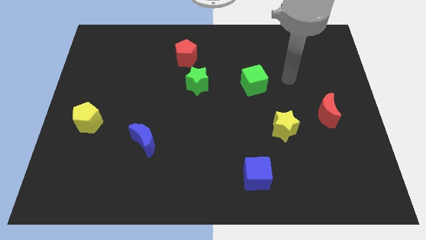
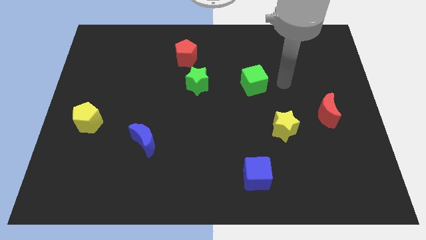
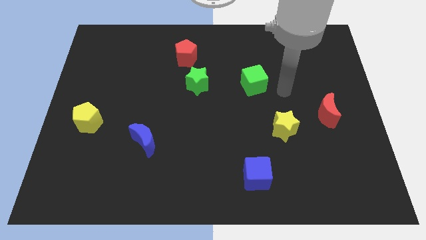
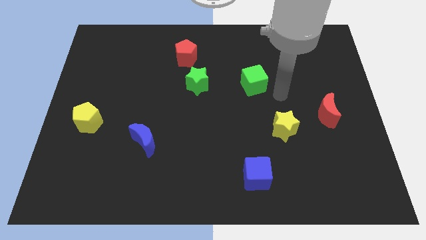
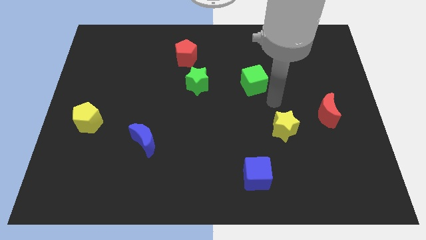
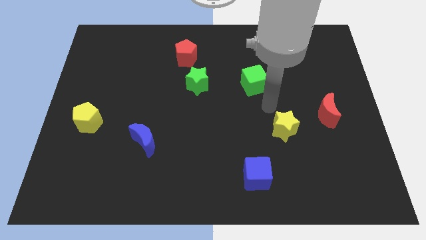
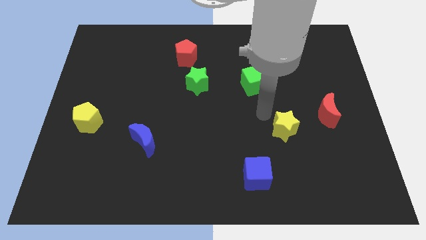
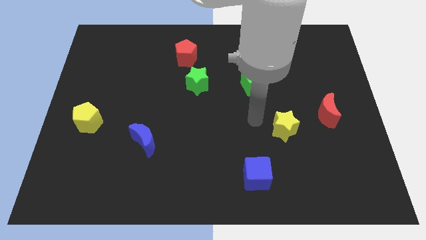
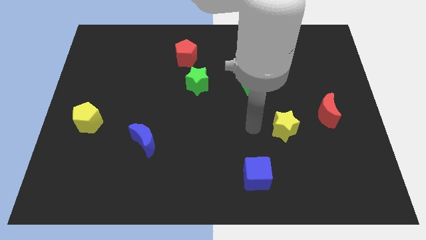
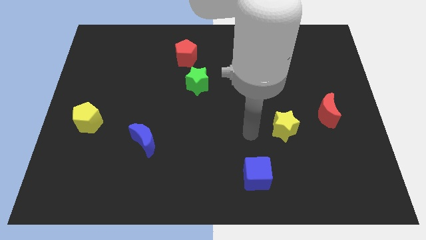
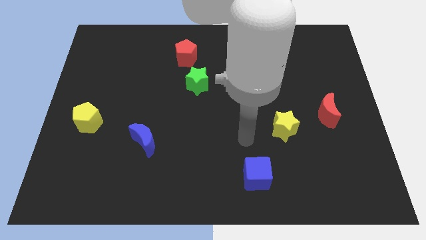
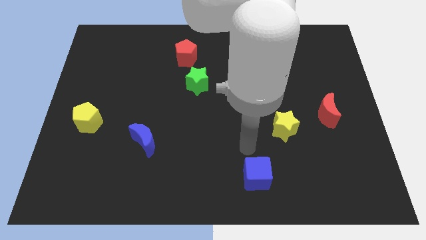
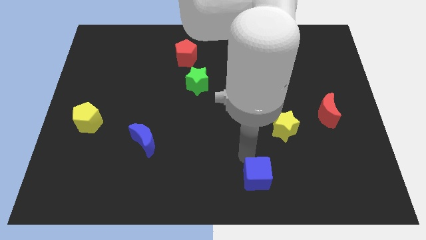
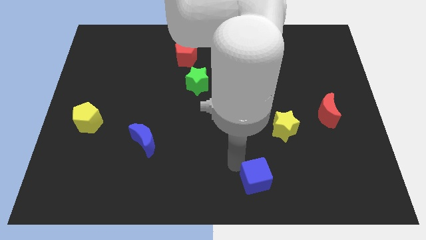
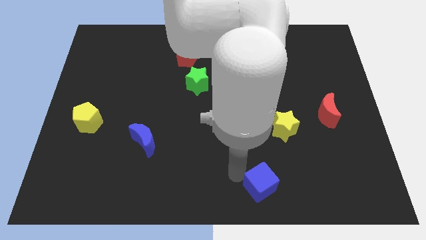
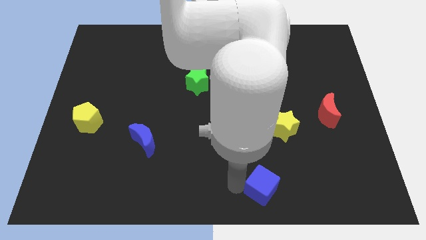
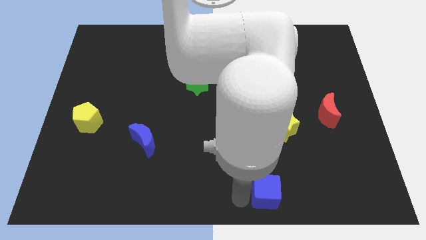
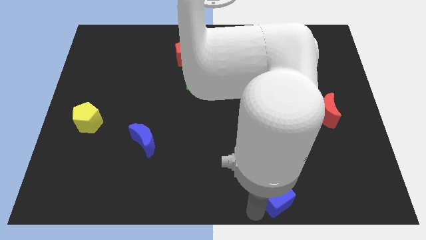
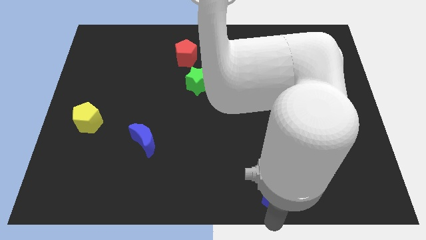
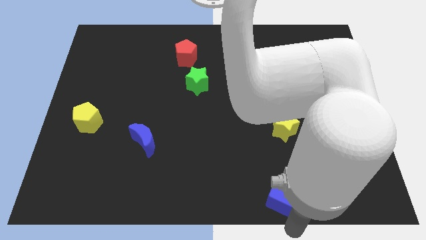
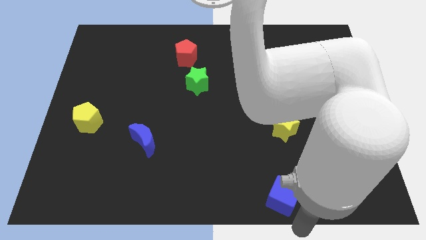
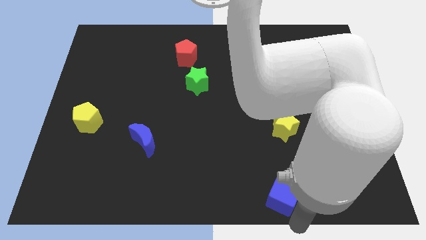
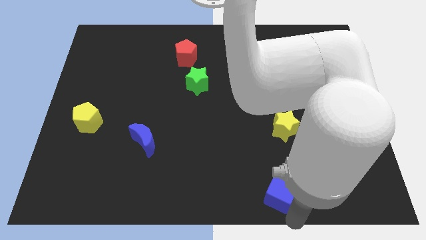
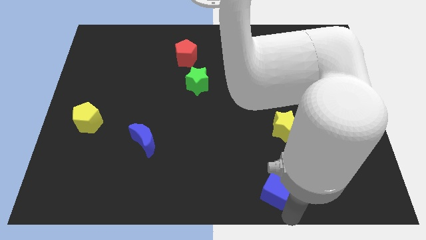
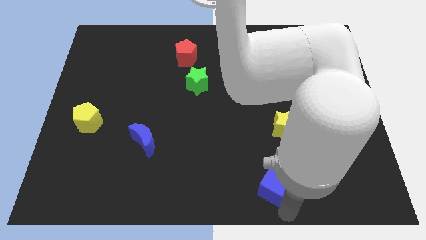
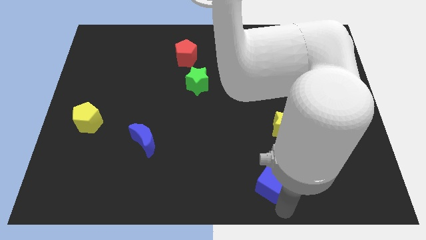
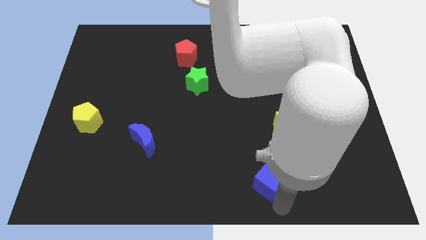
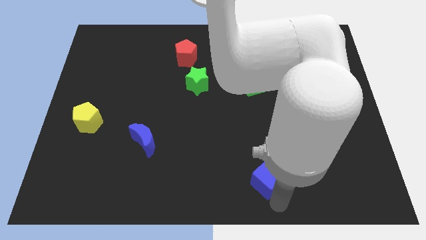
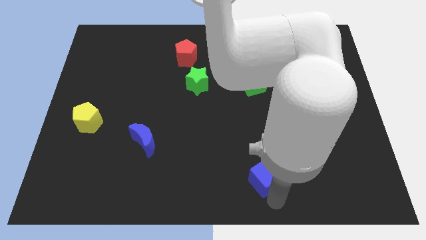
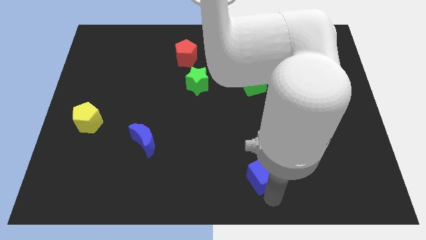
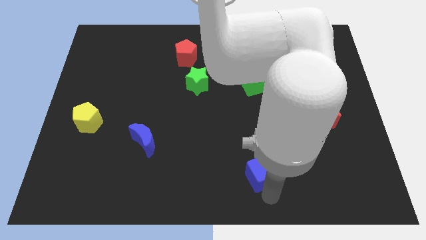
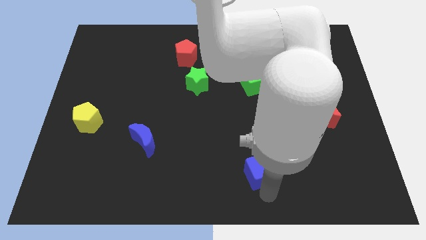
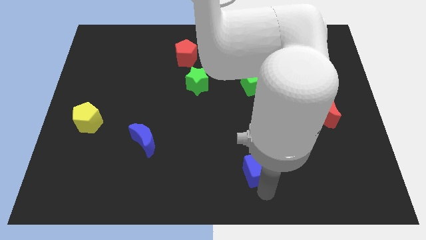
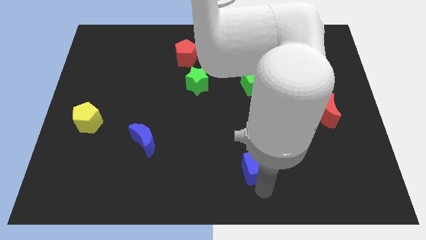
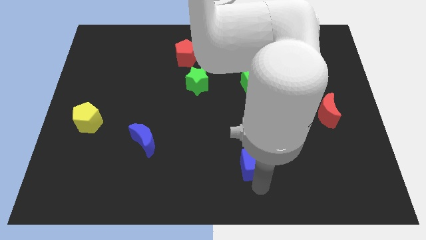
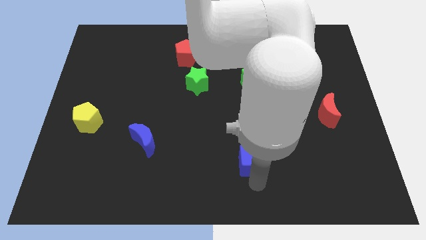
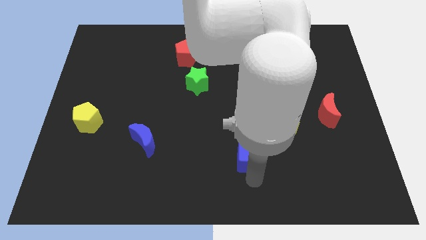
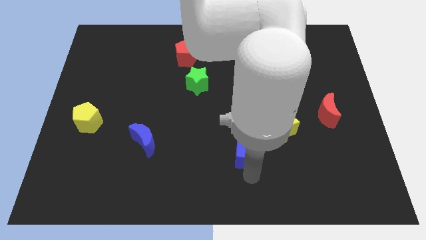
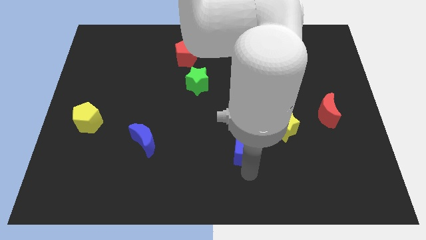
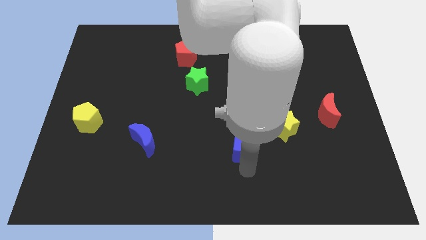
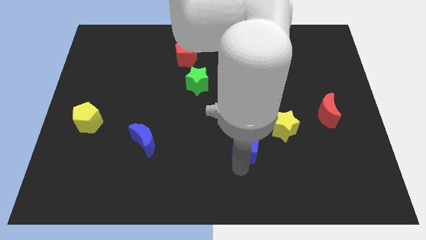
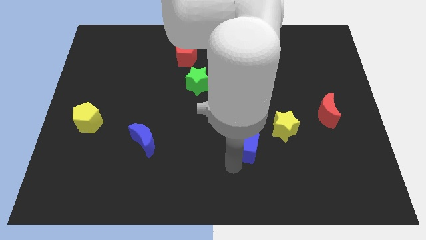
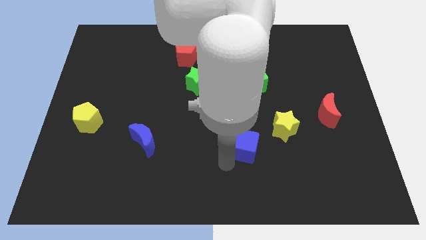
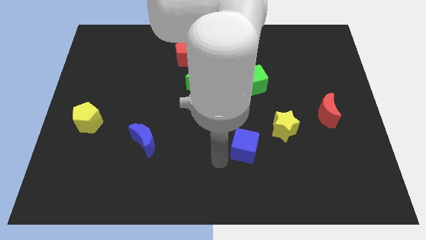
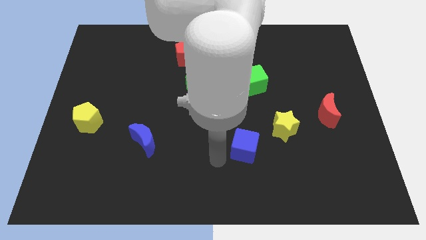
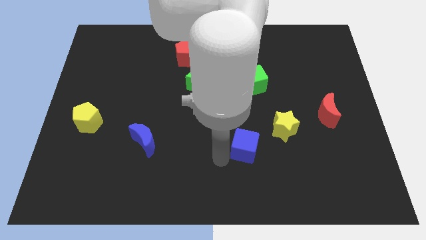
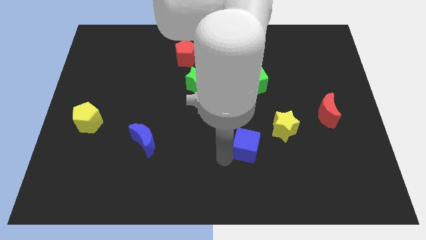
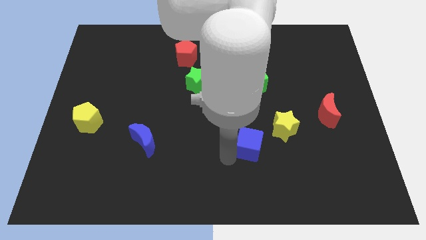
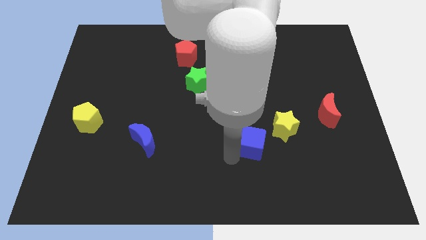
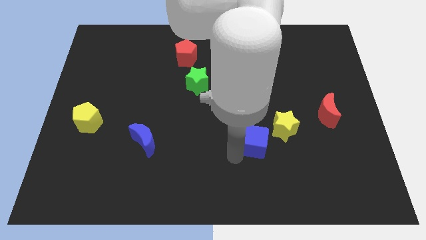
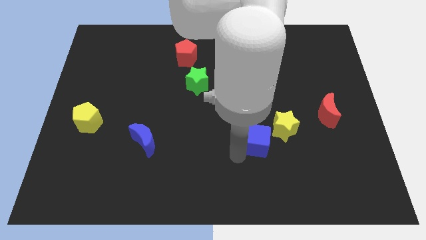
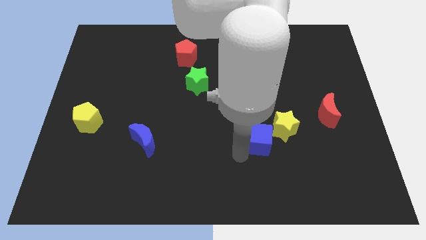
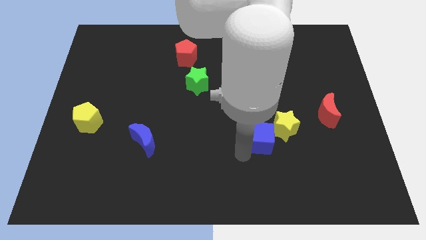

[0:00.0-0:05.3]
put the blue cube close to the yellow star

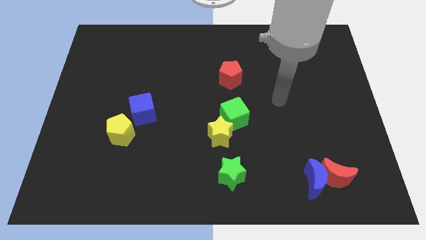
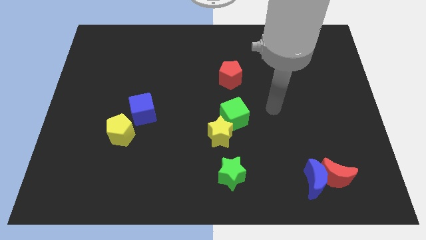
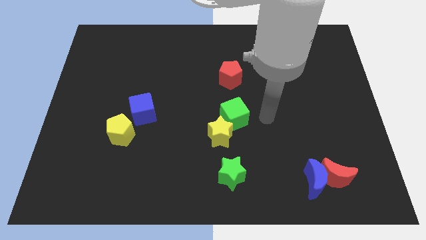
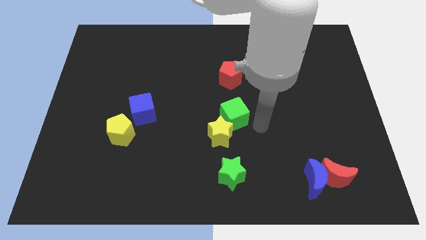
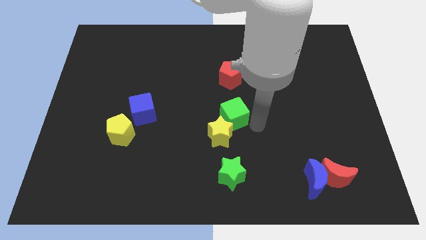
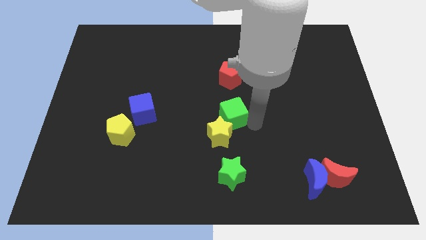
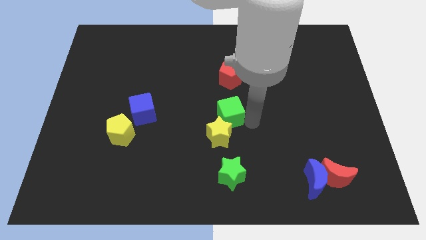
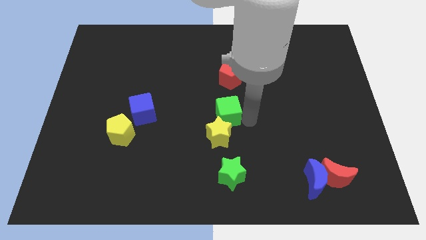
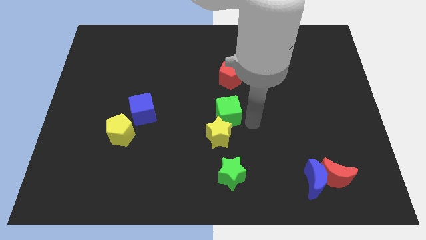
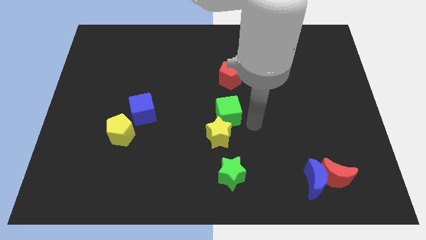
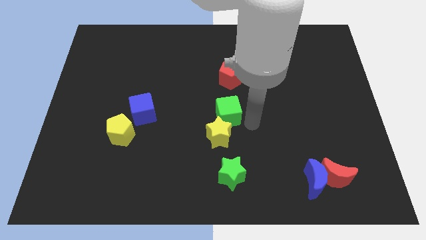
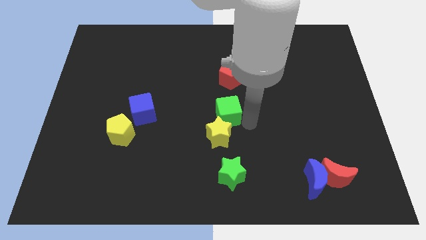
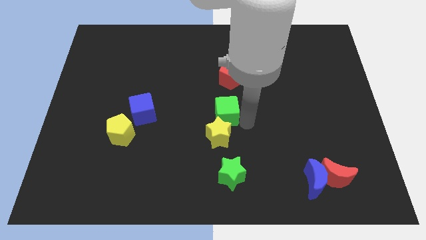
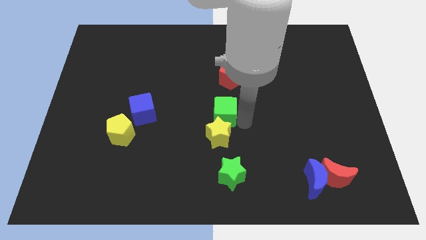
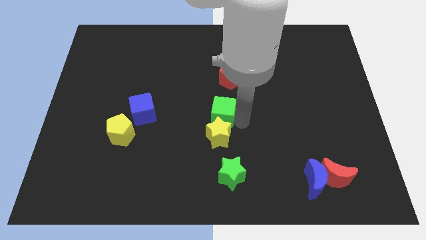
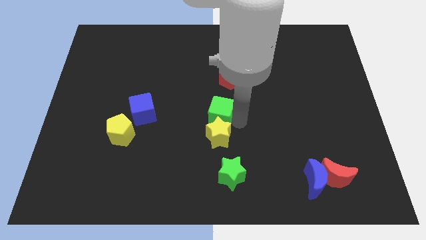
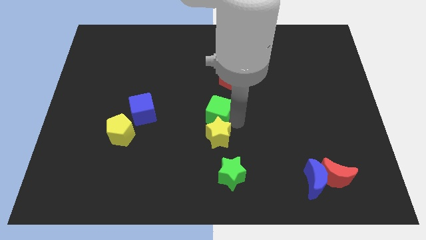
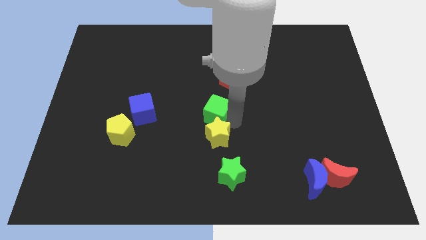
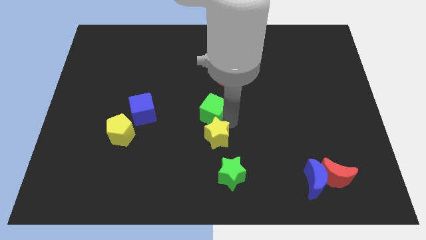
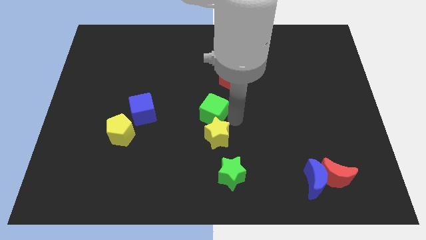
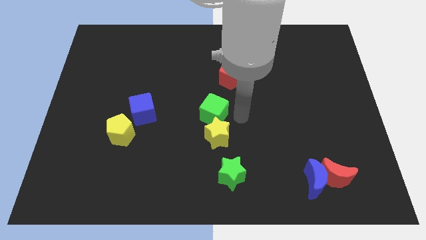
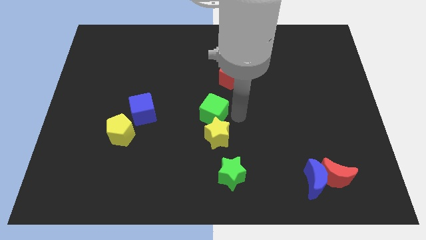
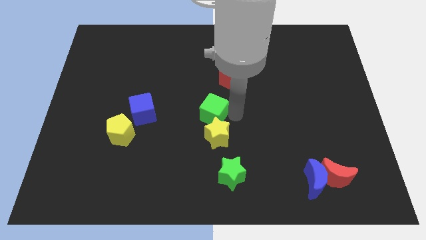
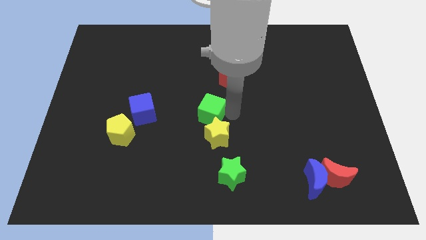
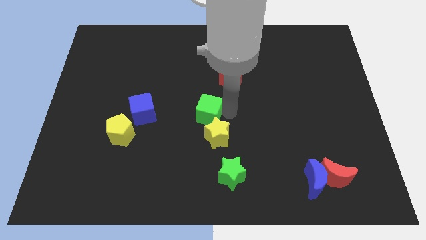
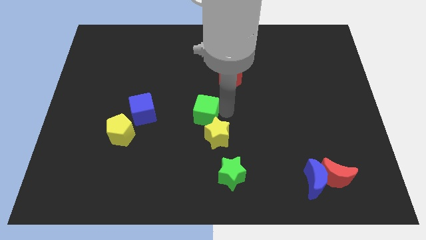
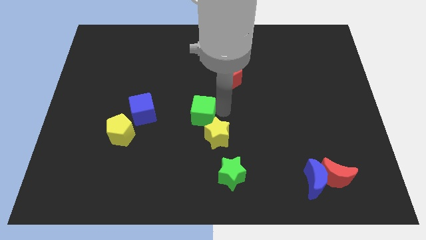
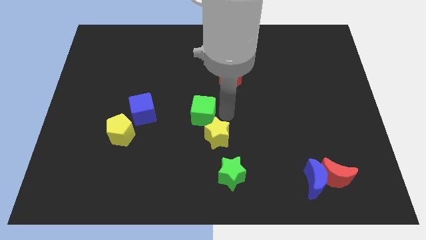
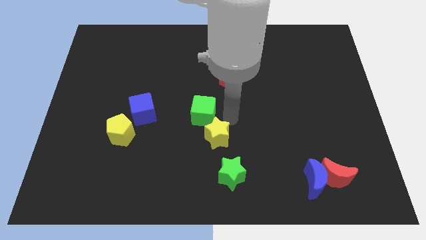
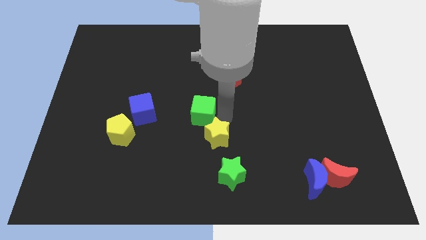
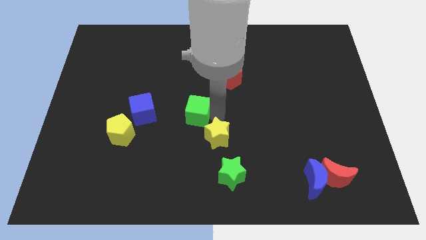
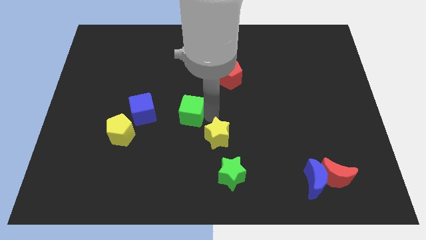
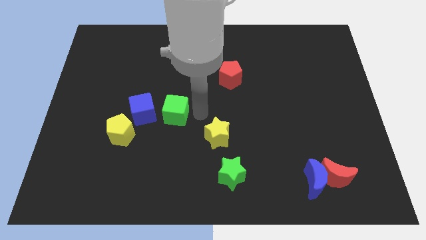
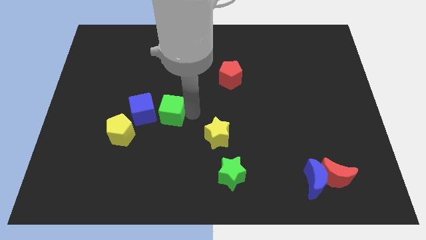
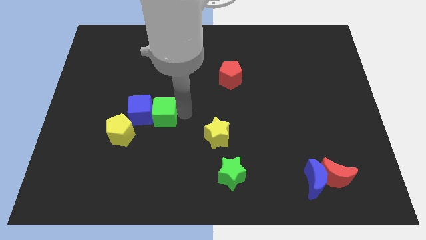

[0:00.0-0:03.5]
put the green cube close to the blue cube
